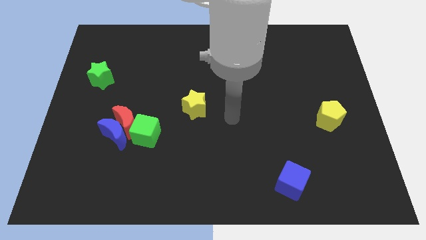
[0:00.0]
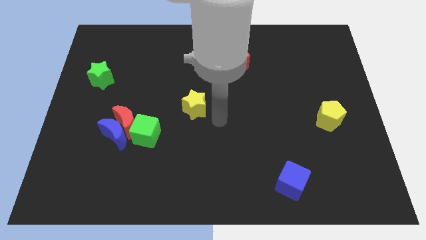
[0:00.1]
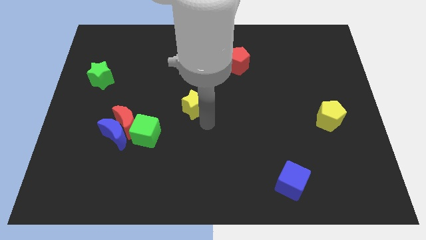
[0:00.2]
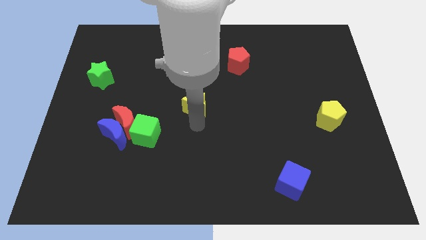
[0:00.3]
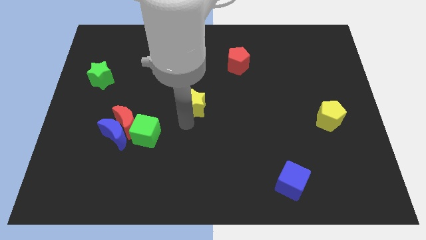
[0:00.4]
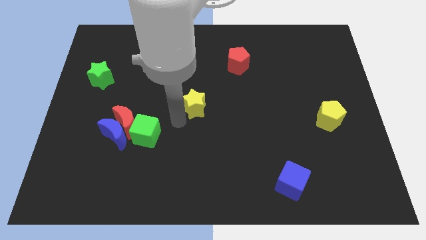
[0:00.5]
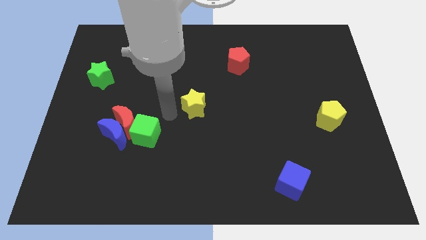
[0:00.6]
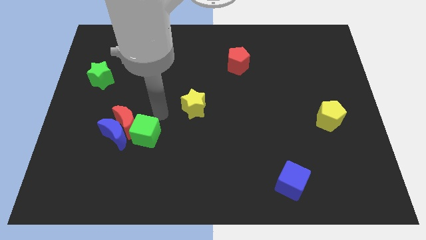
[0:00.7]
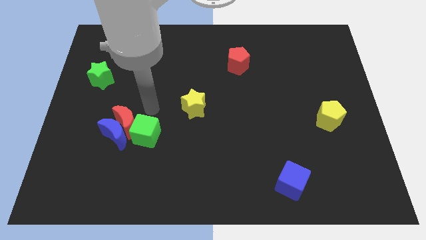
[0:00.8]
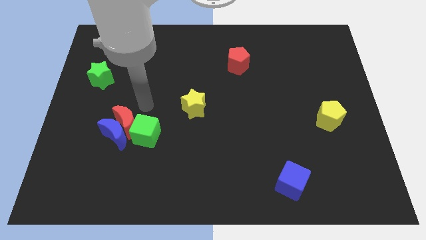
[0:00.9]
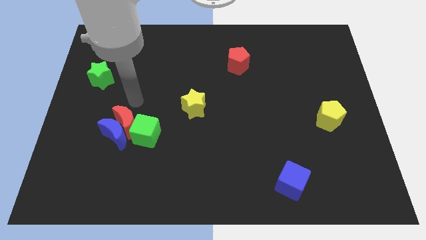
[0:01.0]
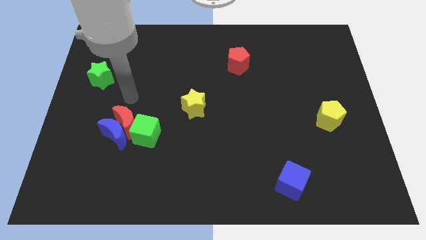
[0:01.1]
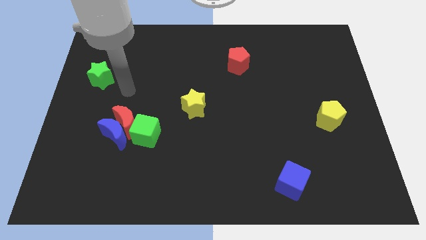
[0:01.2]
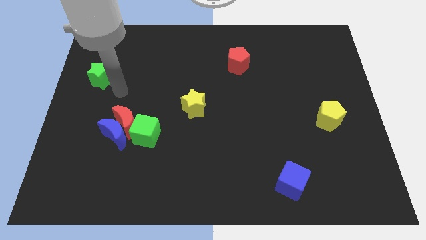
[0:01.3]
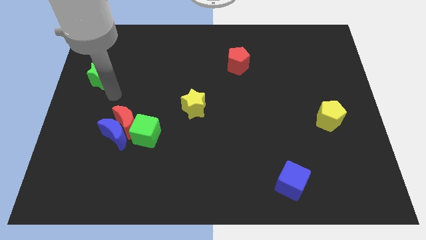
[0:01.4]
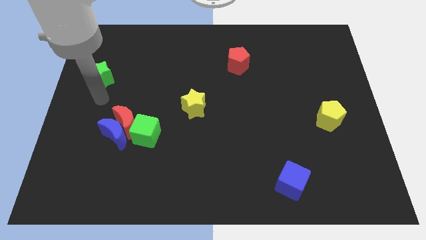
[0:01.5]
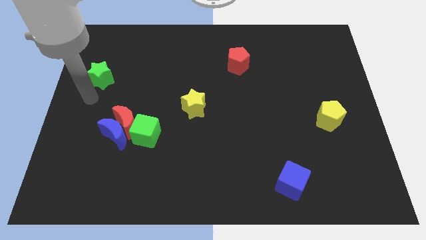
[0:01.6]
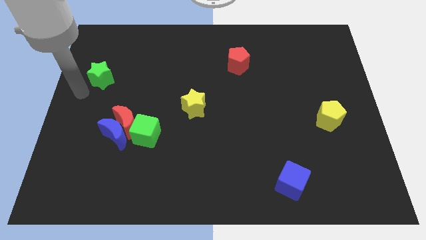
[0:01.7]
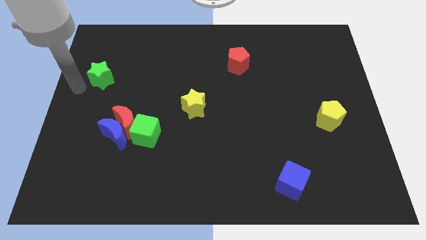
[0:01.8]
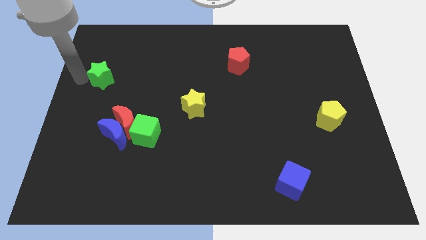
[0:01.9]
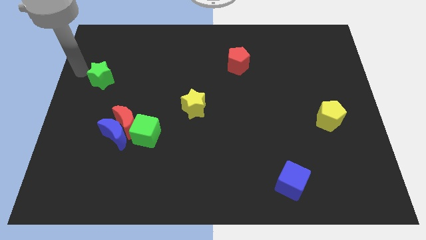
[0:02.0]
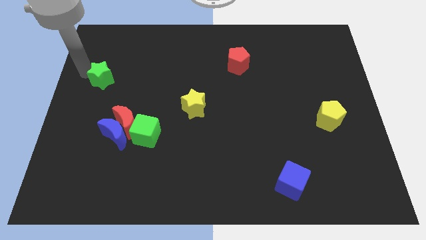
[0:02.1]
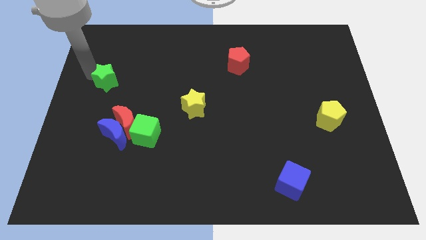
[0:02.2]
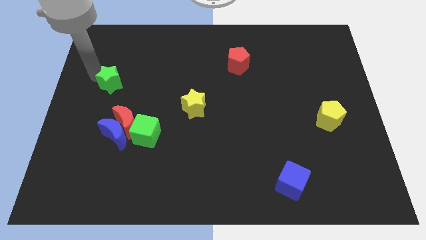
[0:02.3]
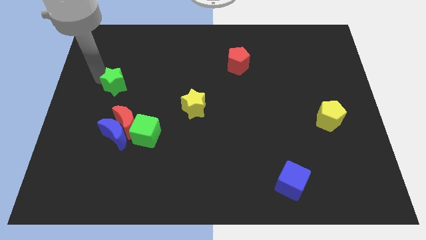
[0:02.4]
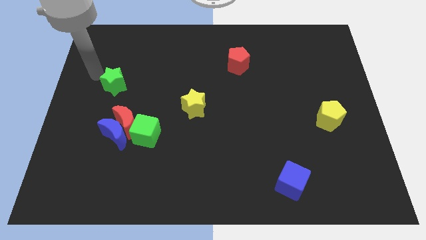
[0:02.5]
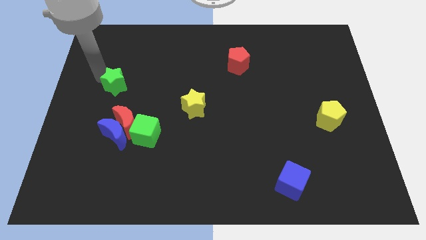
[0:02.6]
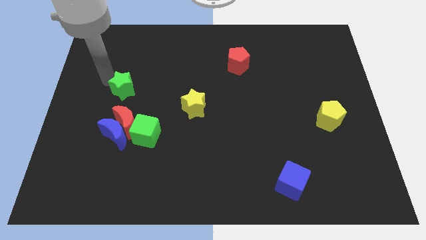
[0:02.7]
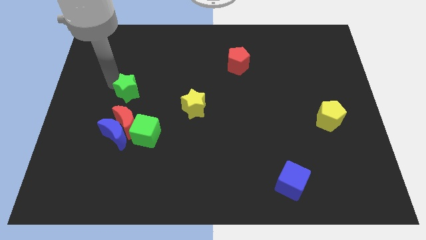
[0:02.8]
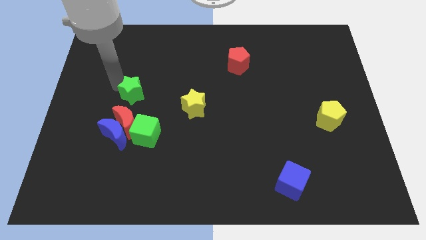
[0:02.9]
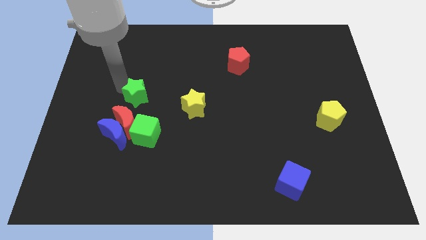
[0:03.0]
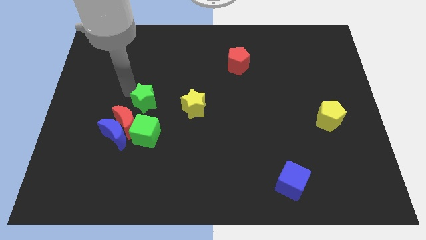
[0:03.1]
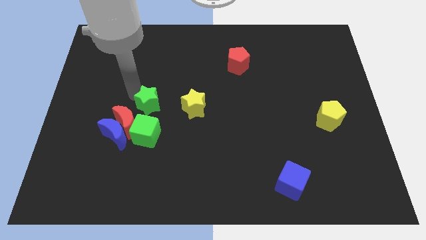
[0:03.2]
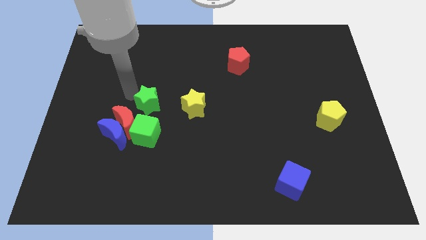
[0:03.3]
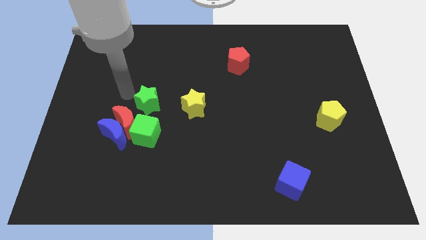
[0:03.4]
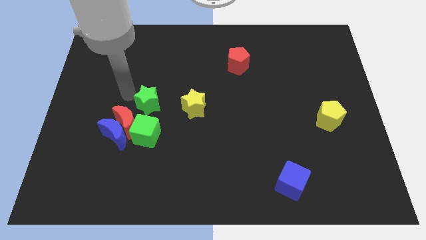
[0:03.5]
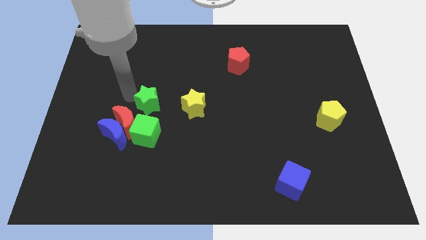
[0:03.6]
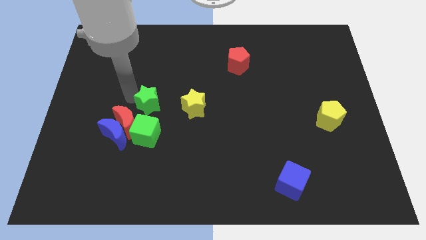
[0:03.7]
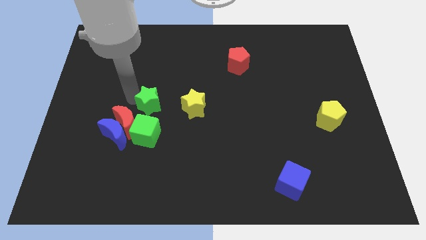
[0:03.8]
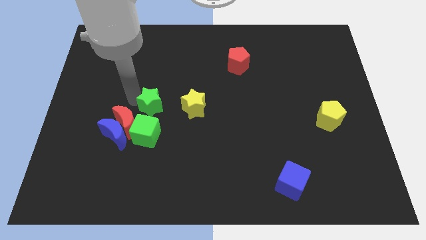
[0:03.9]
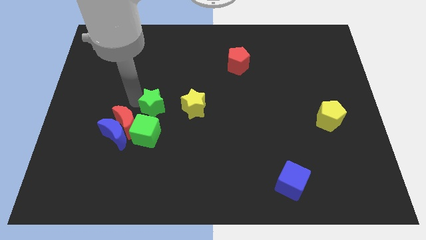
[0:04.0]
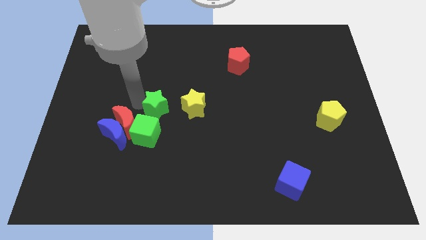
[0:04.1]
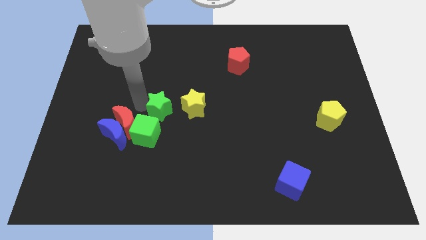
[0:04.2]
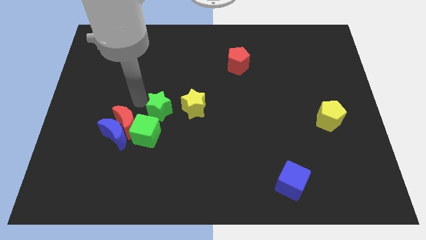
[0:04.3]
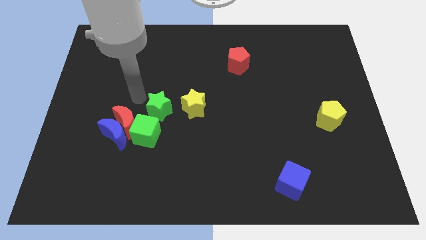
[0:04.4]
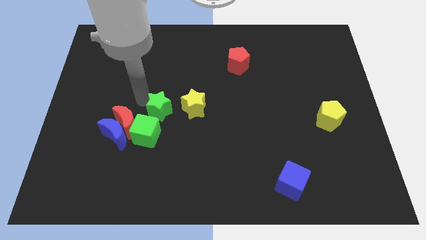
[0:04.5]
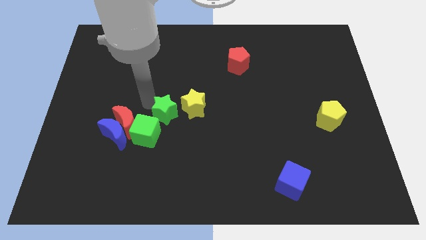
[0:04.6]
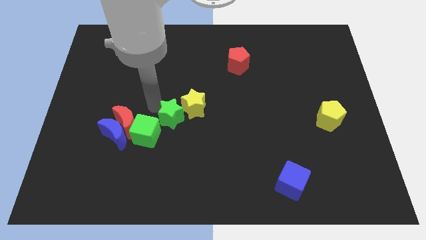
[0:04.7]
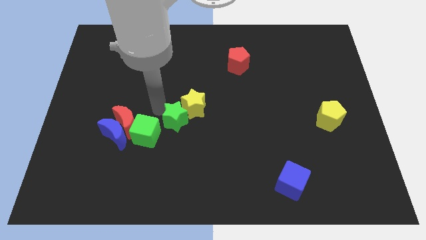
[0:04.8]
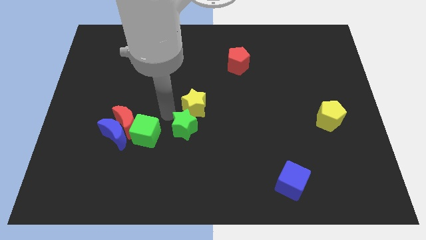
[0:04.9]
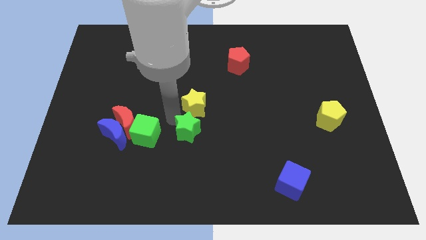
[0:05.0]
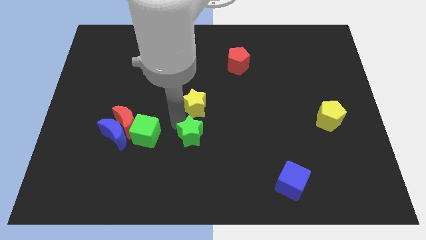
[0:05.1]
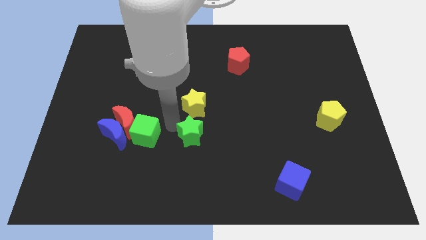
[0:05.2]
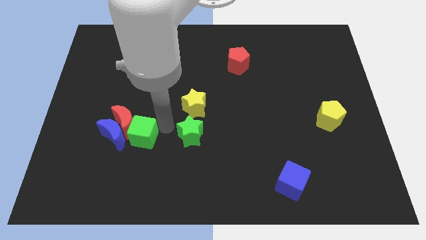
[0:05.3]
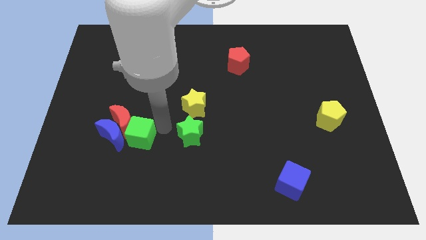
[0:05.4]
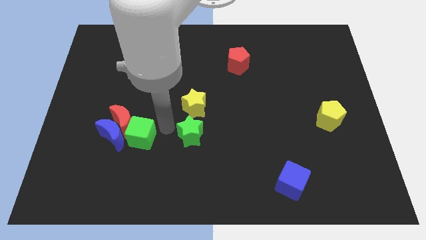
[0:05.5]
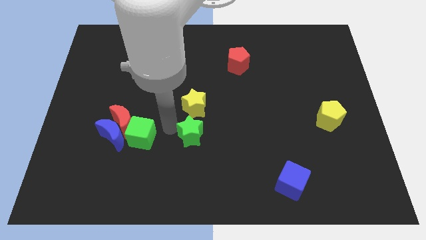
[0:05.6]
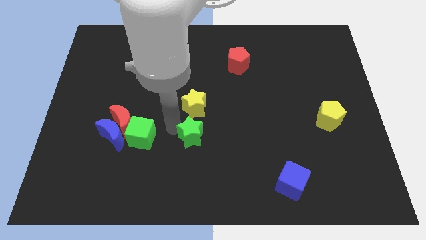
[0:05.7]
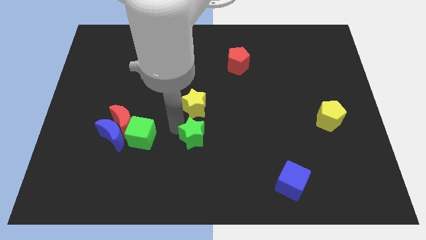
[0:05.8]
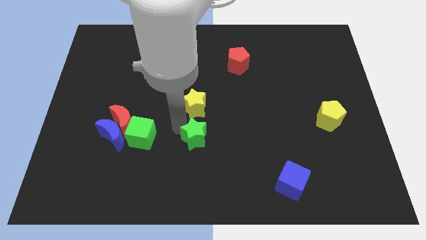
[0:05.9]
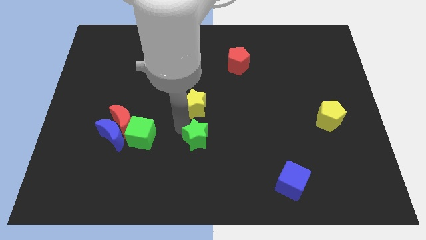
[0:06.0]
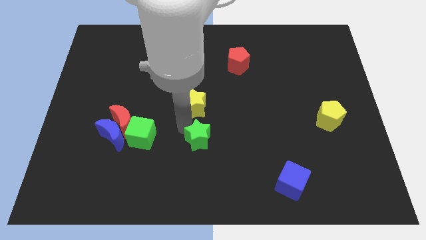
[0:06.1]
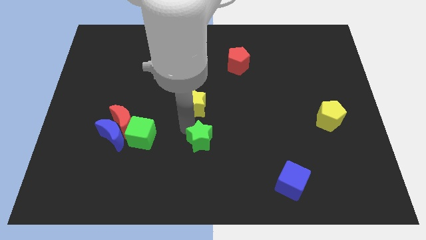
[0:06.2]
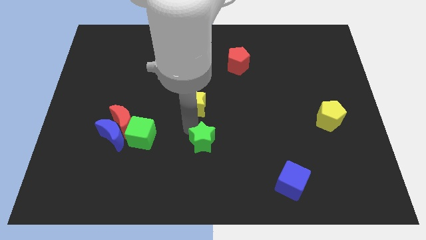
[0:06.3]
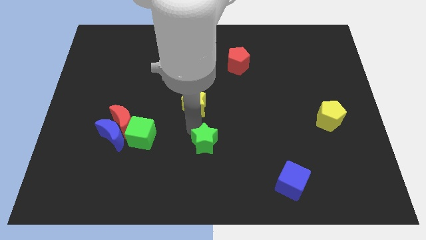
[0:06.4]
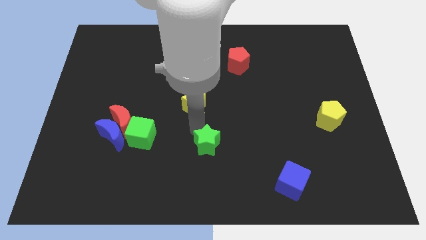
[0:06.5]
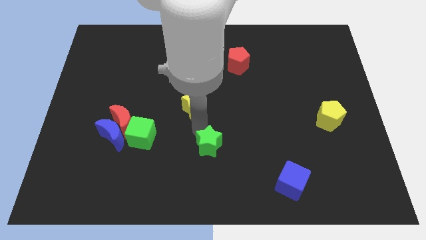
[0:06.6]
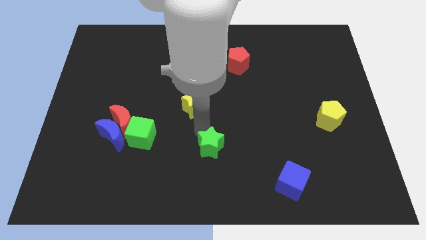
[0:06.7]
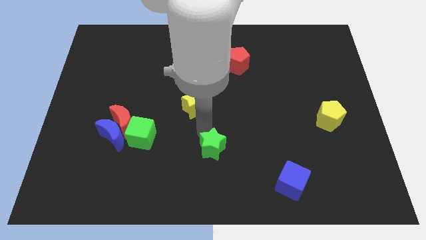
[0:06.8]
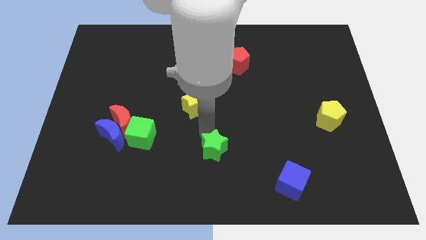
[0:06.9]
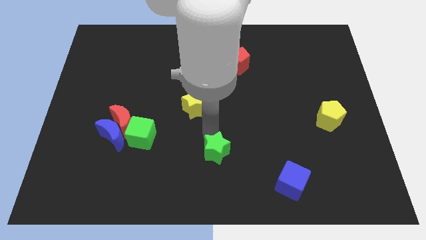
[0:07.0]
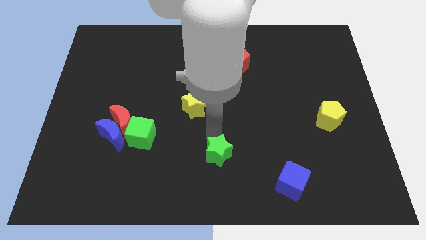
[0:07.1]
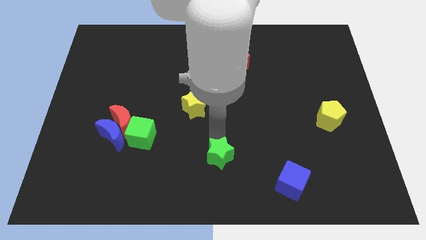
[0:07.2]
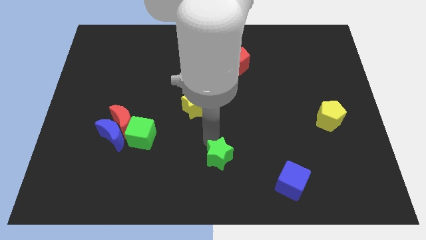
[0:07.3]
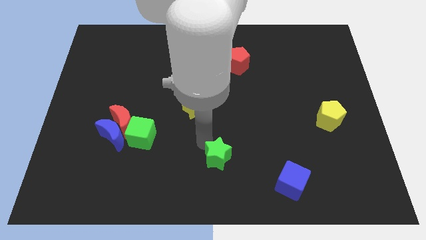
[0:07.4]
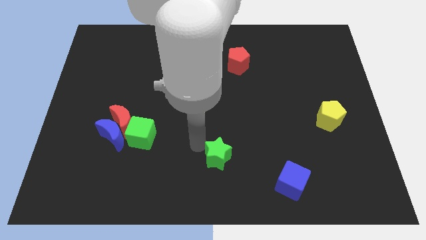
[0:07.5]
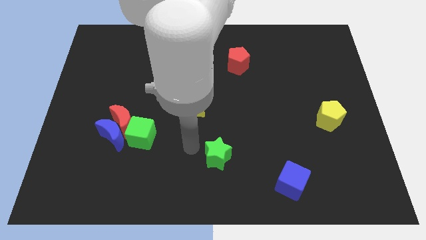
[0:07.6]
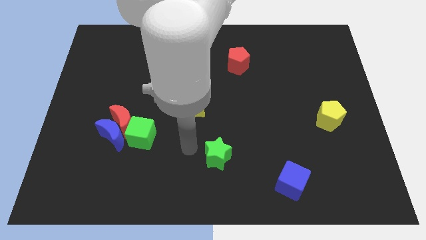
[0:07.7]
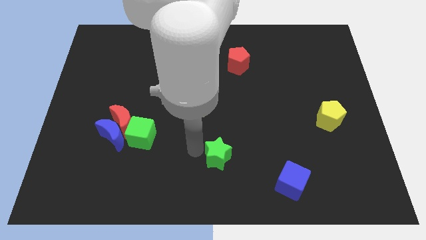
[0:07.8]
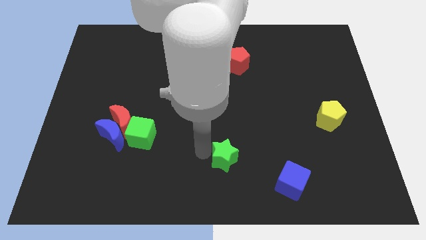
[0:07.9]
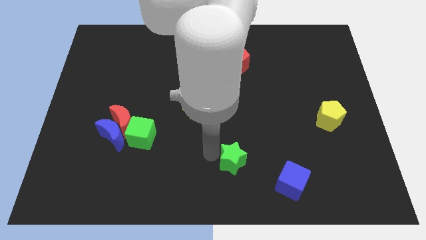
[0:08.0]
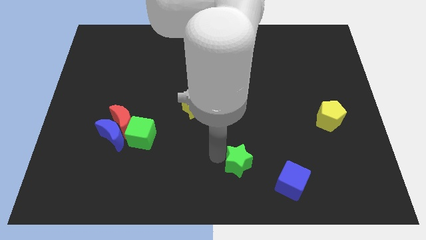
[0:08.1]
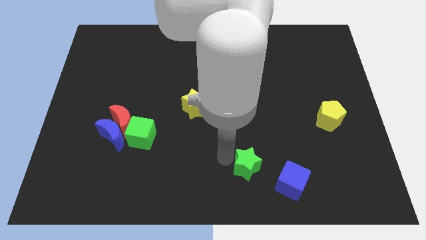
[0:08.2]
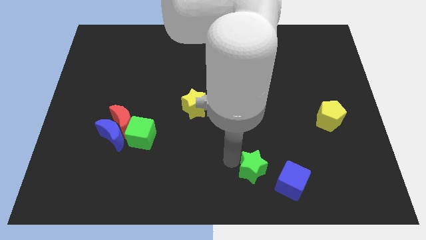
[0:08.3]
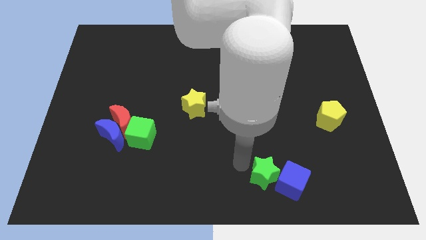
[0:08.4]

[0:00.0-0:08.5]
move the green star next to the blue cube
